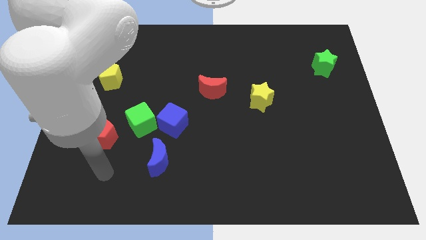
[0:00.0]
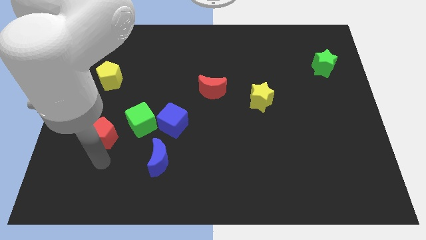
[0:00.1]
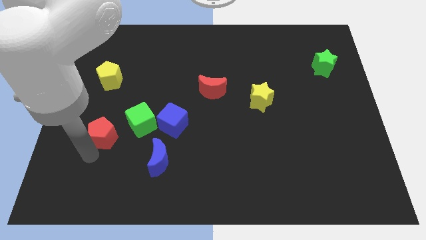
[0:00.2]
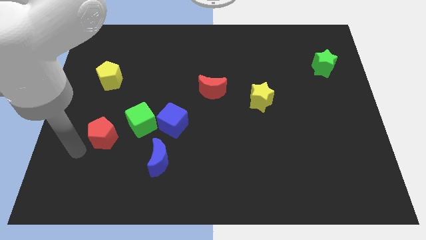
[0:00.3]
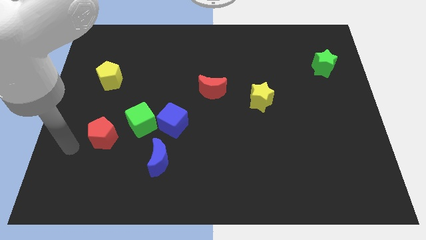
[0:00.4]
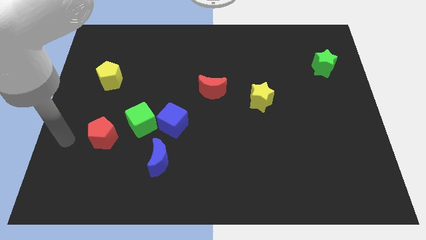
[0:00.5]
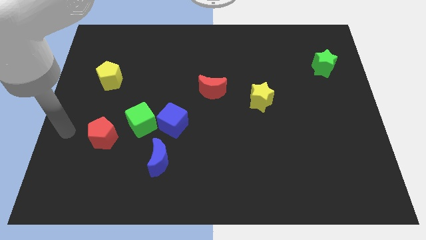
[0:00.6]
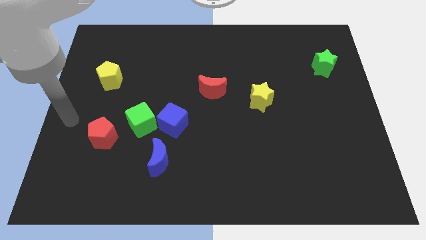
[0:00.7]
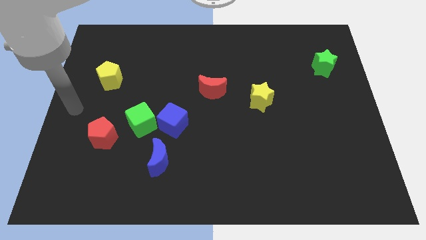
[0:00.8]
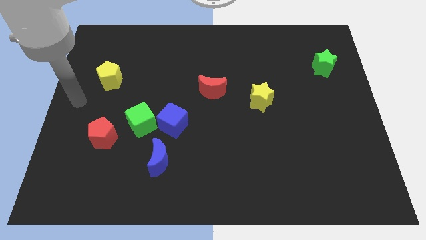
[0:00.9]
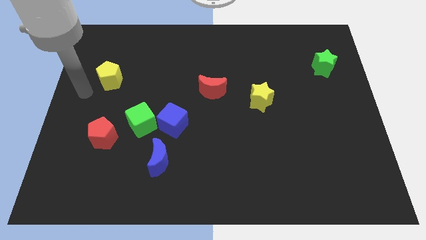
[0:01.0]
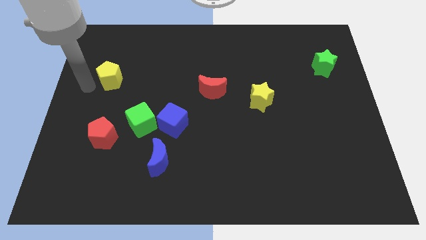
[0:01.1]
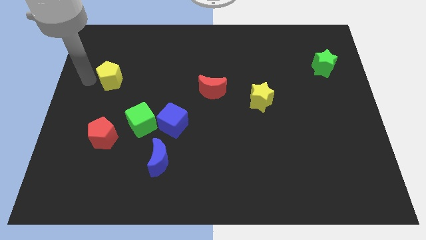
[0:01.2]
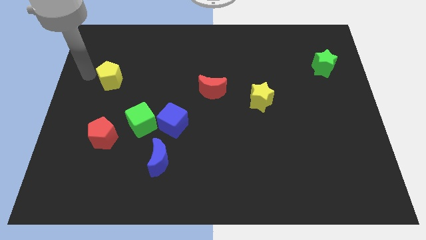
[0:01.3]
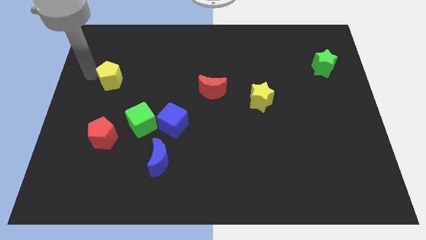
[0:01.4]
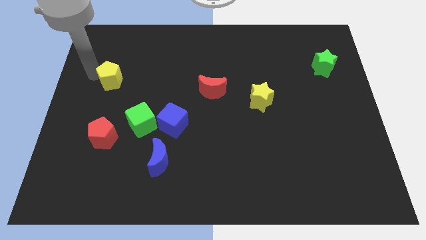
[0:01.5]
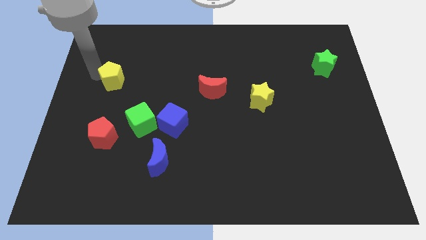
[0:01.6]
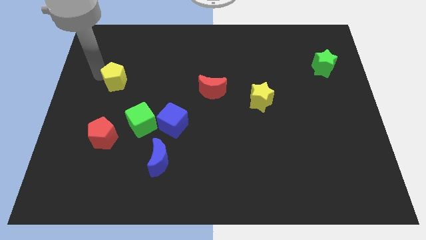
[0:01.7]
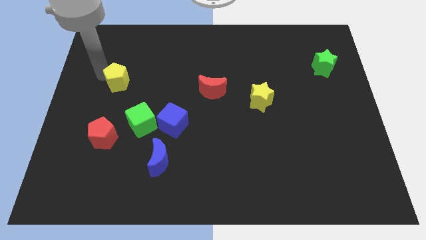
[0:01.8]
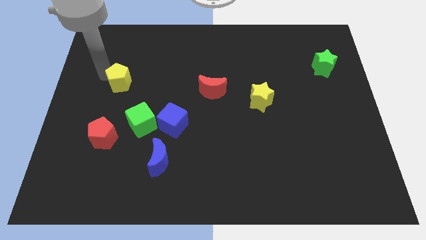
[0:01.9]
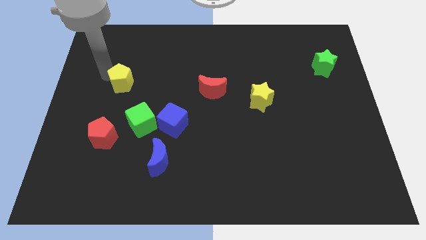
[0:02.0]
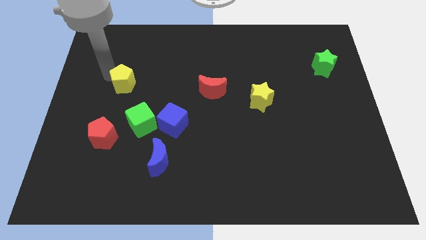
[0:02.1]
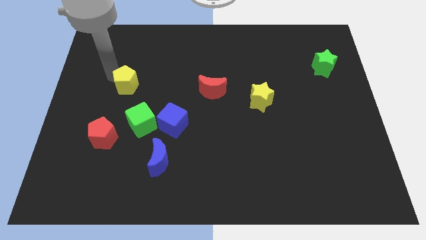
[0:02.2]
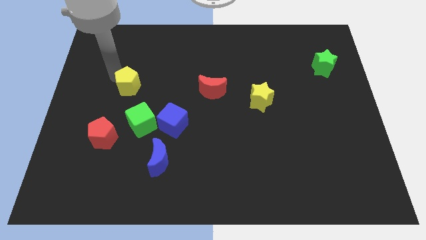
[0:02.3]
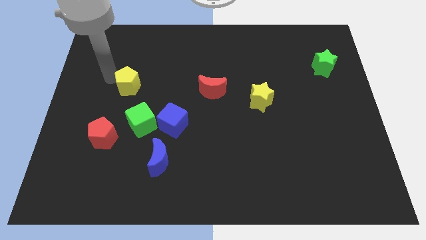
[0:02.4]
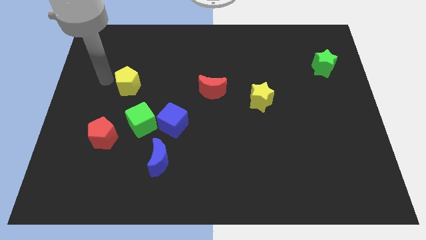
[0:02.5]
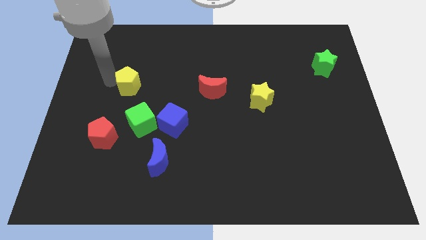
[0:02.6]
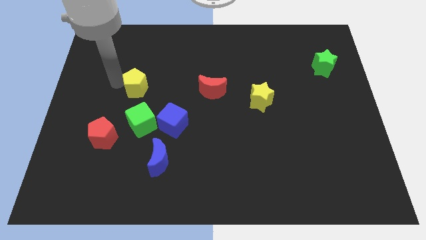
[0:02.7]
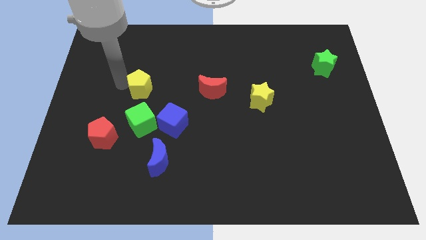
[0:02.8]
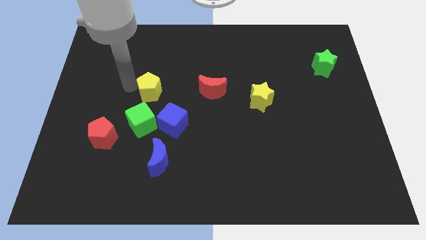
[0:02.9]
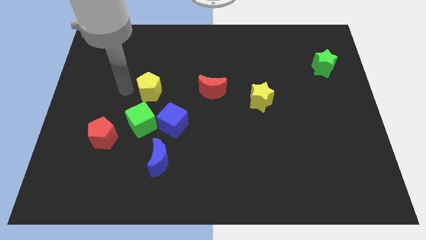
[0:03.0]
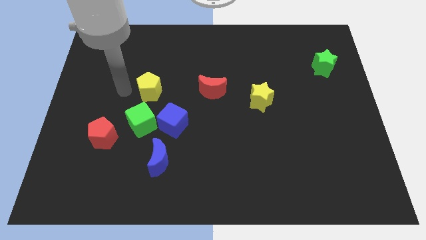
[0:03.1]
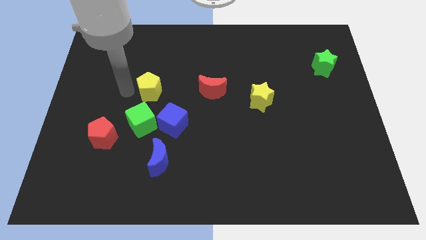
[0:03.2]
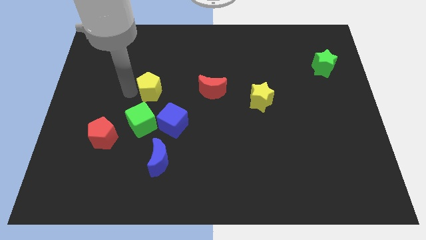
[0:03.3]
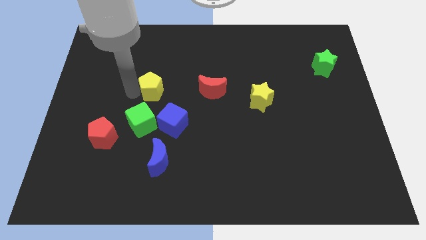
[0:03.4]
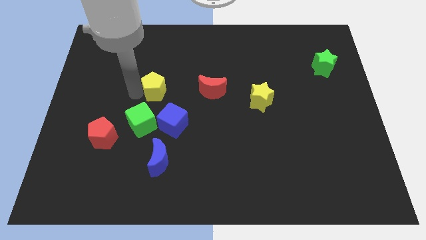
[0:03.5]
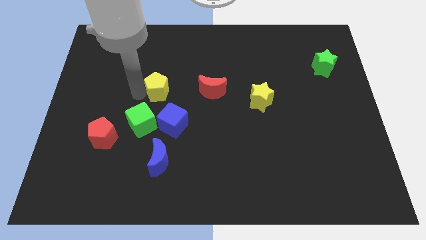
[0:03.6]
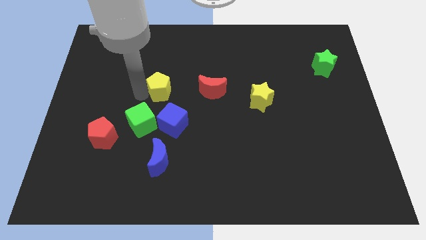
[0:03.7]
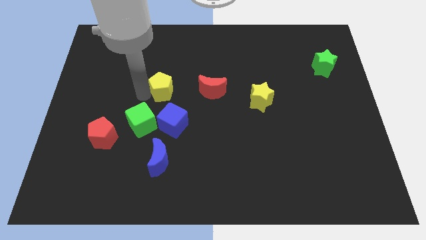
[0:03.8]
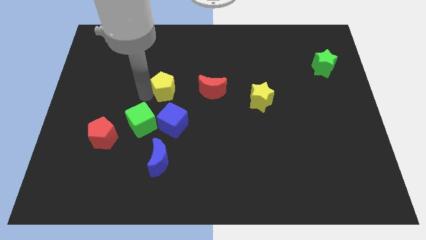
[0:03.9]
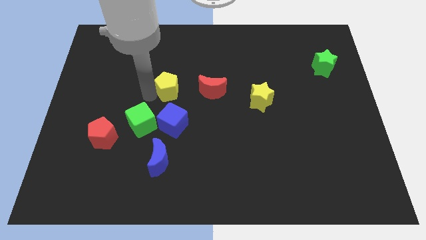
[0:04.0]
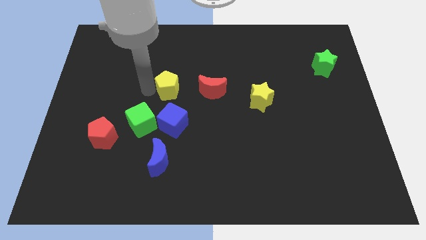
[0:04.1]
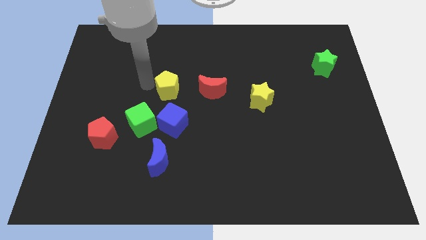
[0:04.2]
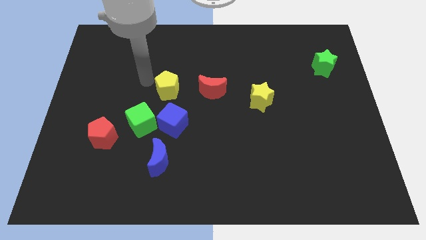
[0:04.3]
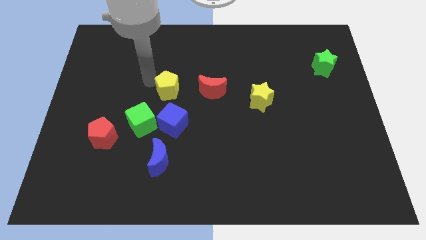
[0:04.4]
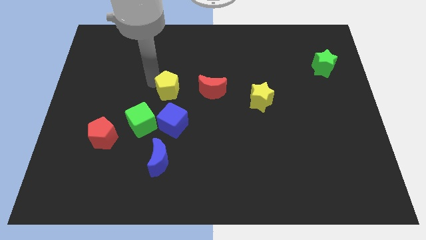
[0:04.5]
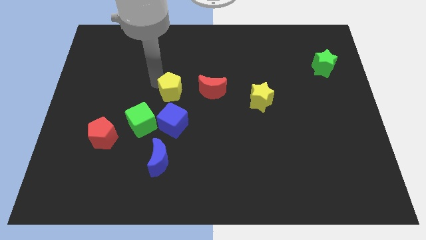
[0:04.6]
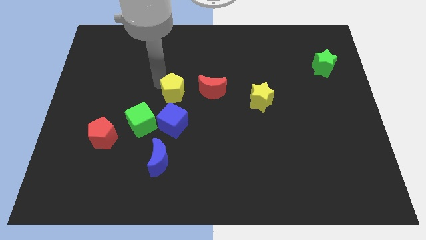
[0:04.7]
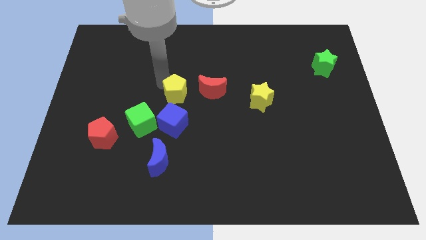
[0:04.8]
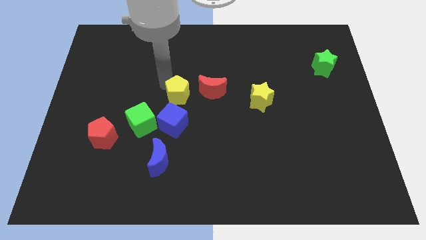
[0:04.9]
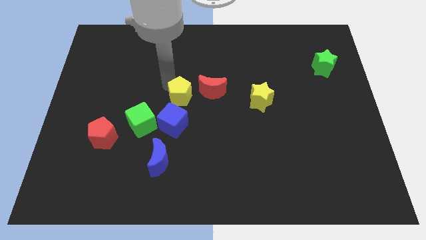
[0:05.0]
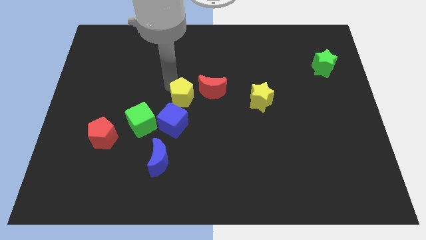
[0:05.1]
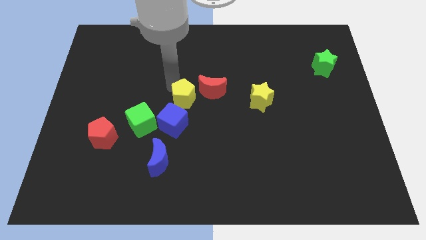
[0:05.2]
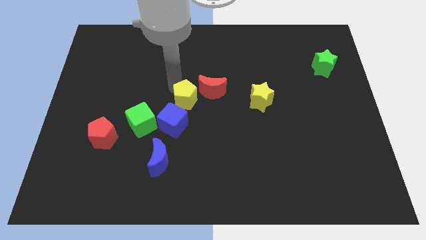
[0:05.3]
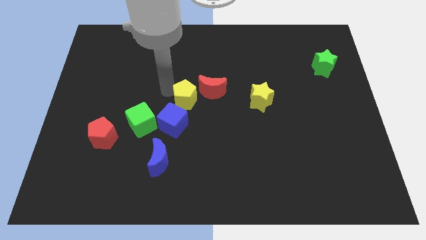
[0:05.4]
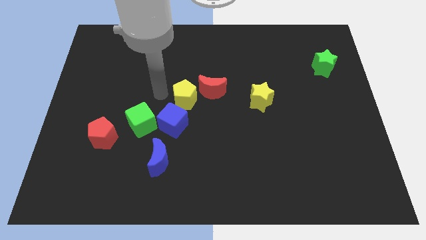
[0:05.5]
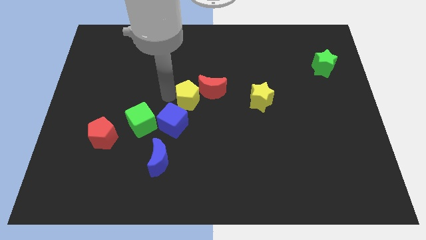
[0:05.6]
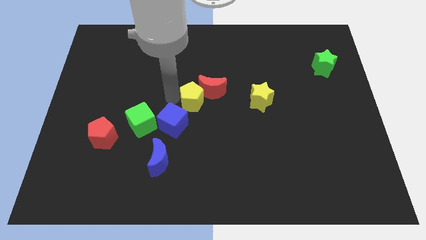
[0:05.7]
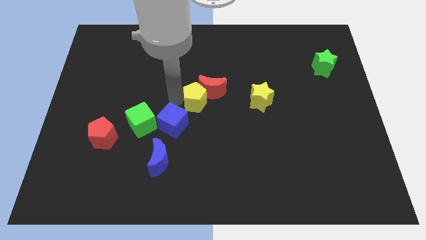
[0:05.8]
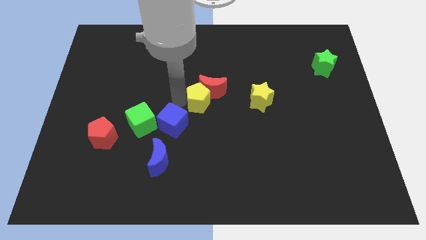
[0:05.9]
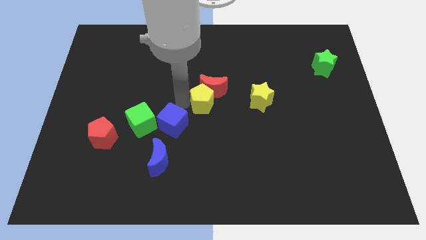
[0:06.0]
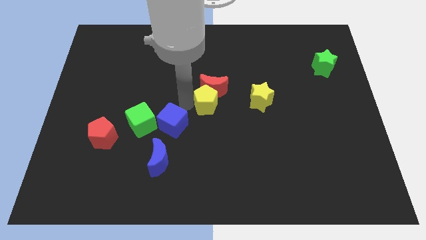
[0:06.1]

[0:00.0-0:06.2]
slide the yellow pentagon to the bottom right side of the red moon

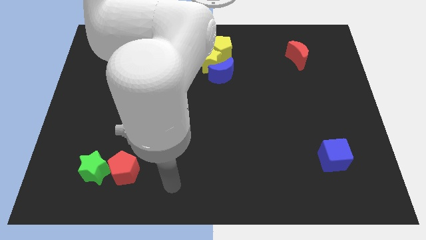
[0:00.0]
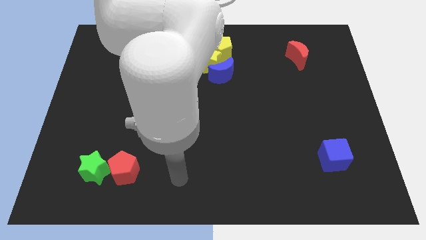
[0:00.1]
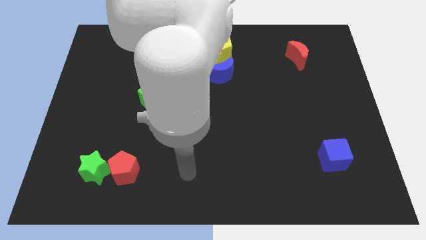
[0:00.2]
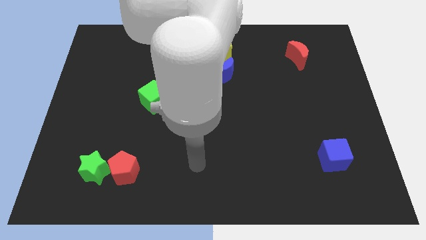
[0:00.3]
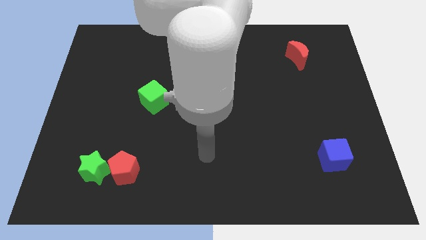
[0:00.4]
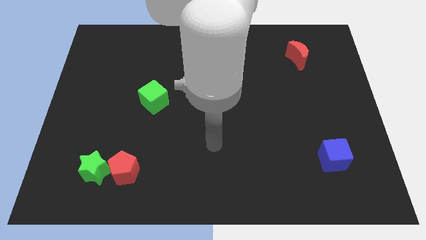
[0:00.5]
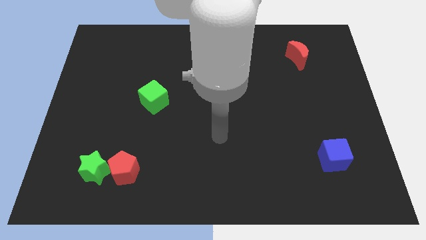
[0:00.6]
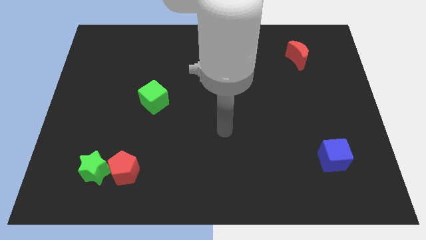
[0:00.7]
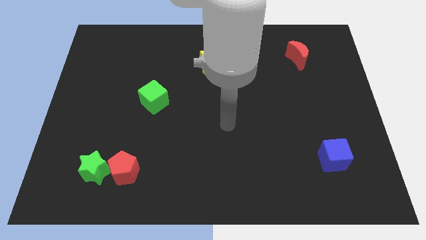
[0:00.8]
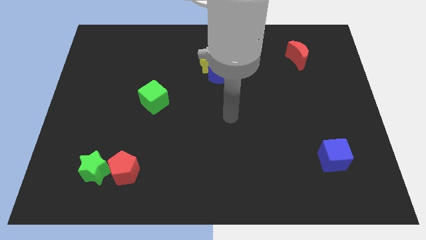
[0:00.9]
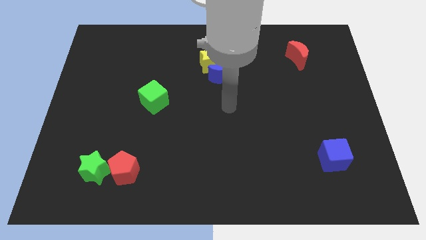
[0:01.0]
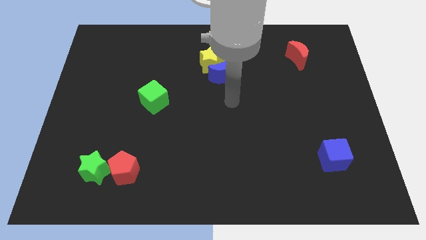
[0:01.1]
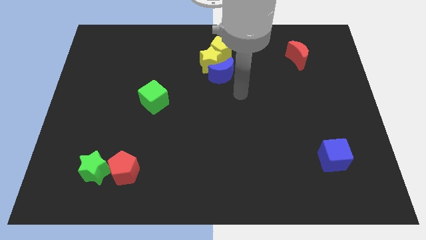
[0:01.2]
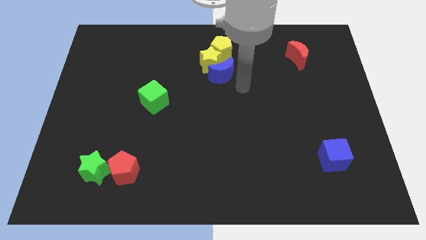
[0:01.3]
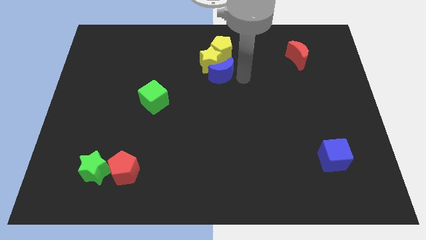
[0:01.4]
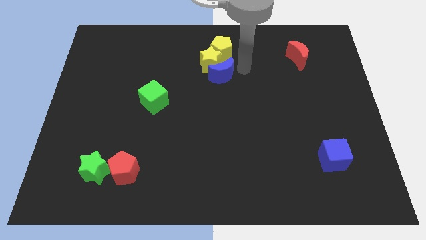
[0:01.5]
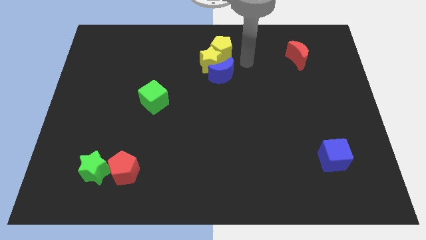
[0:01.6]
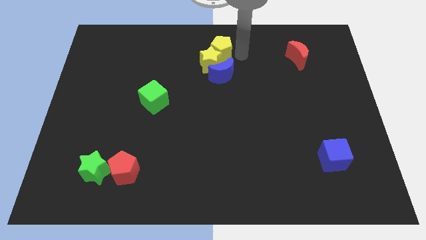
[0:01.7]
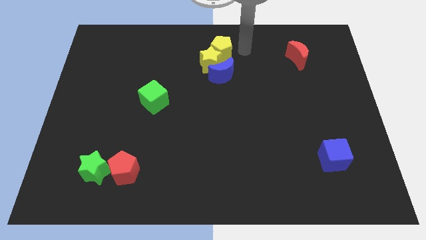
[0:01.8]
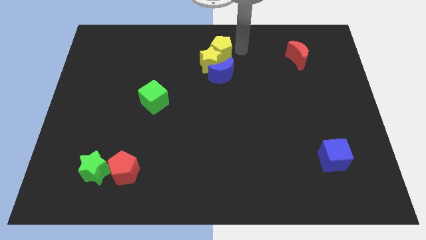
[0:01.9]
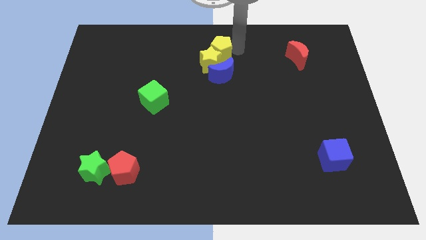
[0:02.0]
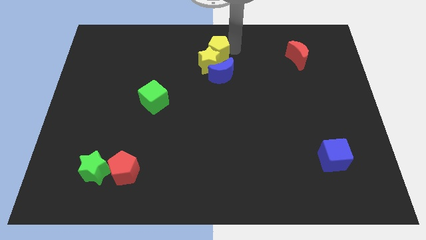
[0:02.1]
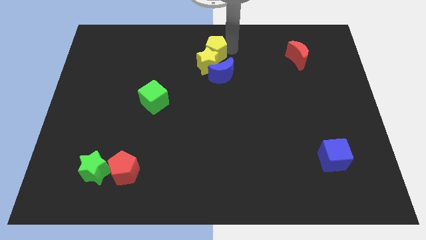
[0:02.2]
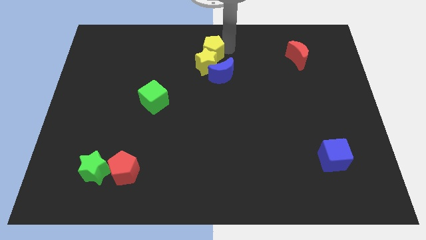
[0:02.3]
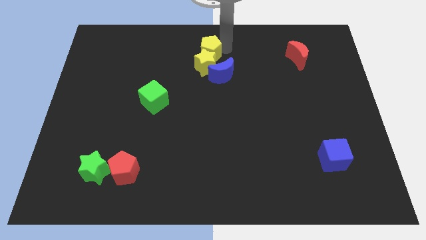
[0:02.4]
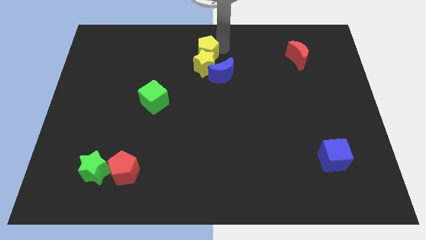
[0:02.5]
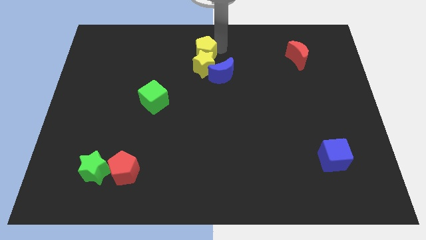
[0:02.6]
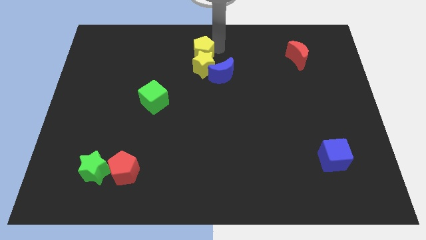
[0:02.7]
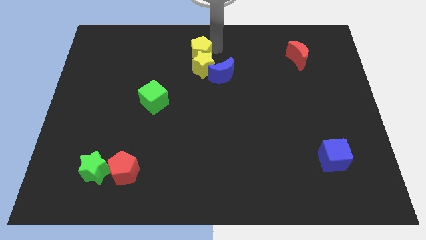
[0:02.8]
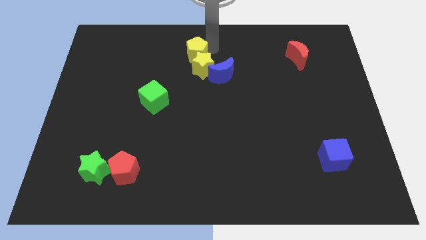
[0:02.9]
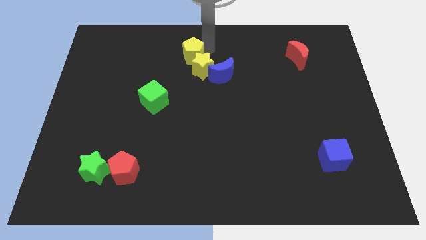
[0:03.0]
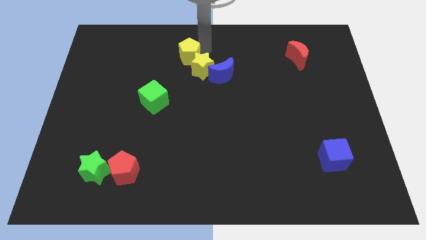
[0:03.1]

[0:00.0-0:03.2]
put the yellow pentagon just left of the yellow star
